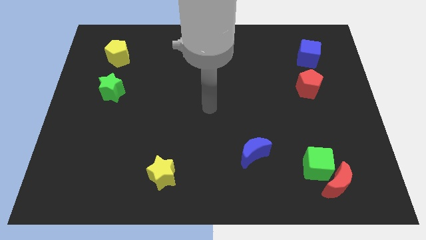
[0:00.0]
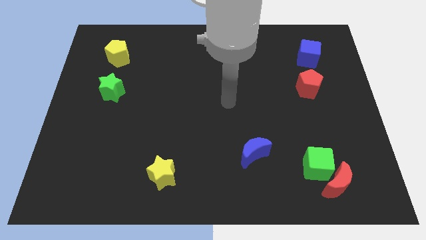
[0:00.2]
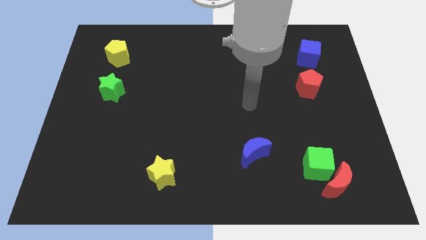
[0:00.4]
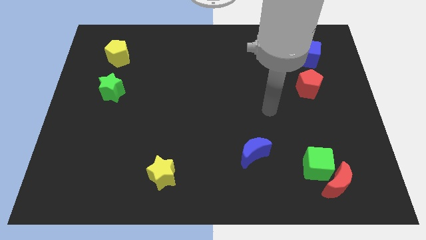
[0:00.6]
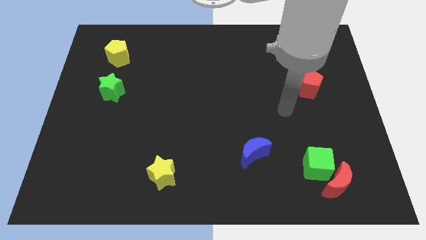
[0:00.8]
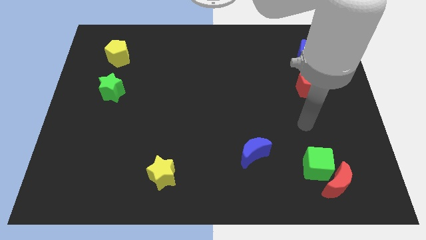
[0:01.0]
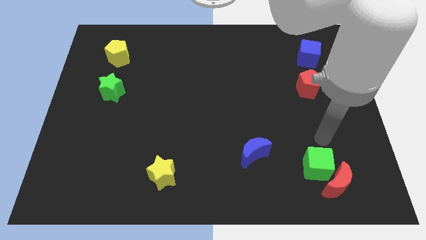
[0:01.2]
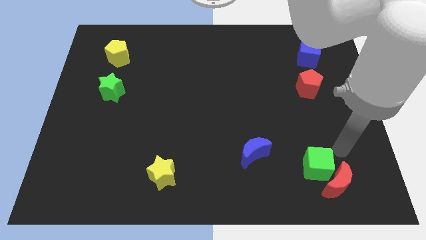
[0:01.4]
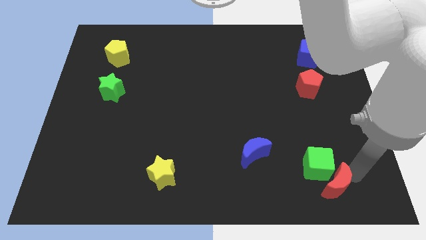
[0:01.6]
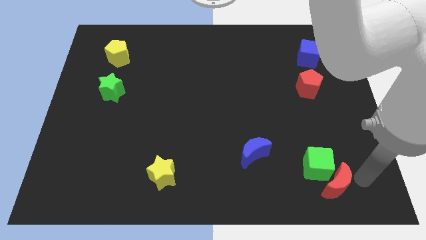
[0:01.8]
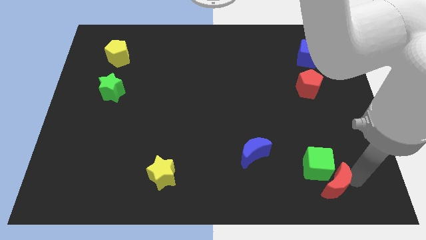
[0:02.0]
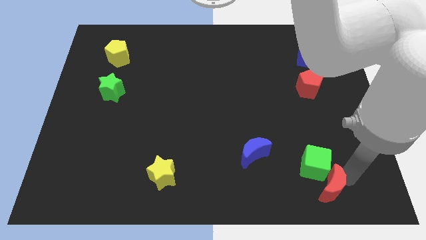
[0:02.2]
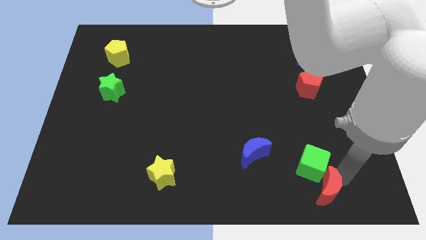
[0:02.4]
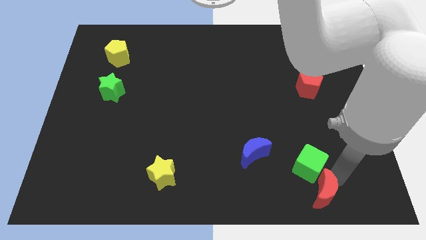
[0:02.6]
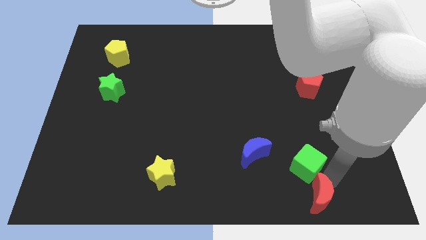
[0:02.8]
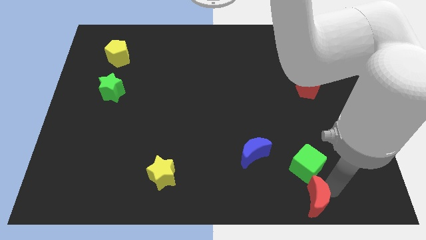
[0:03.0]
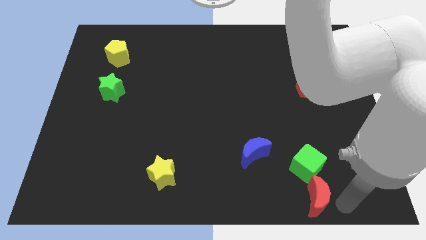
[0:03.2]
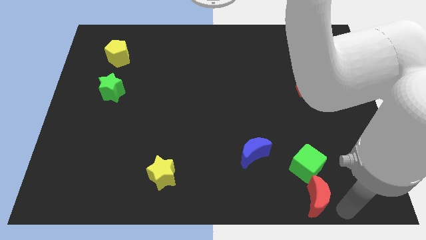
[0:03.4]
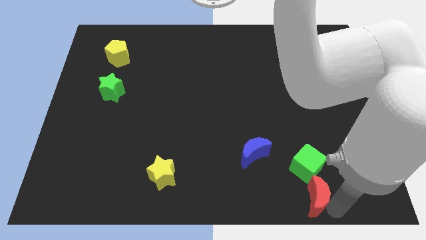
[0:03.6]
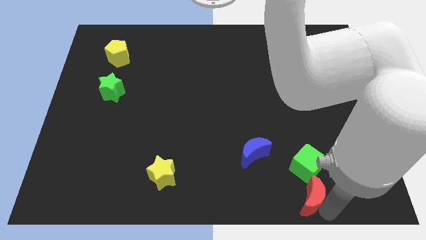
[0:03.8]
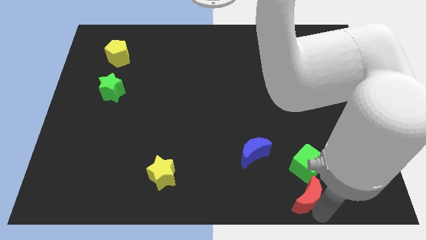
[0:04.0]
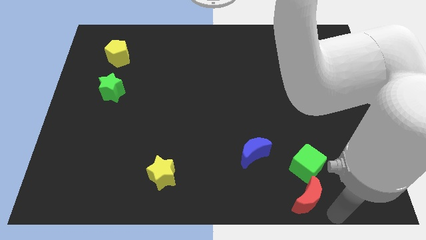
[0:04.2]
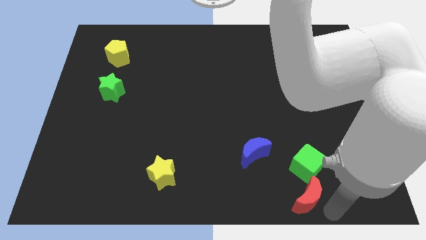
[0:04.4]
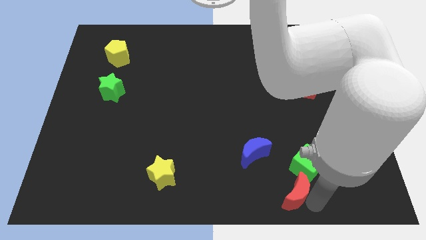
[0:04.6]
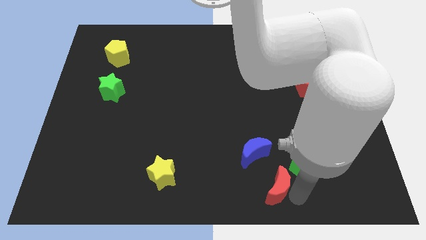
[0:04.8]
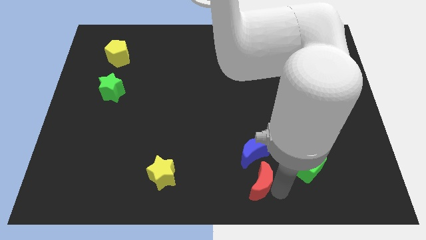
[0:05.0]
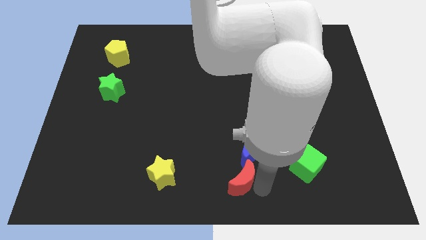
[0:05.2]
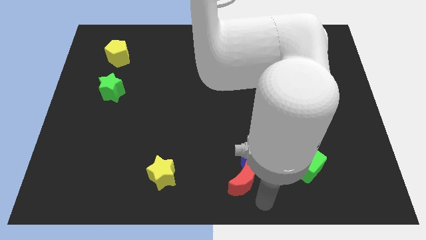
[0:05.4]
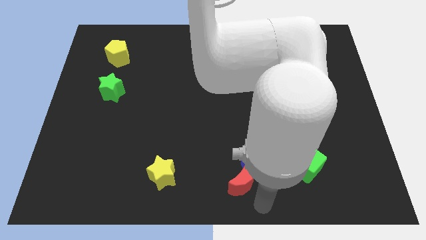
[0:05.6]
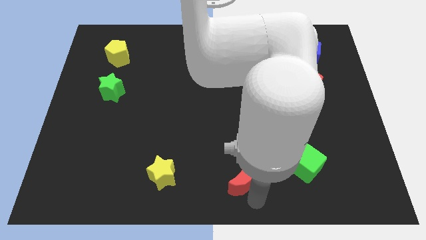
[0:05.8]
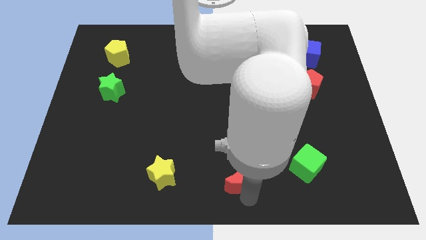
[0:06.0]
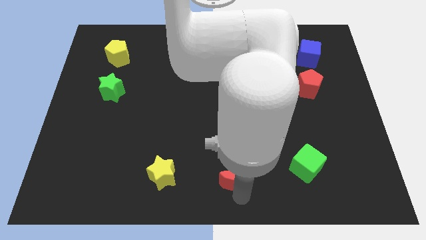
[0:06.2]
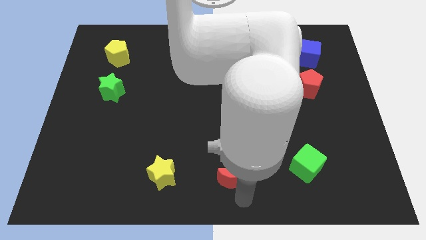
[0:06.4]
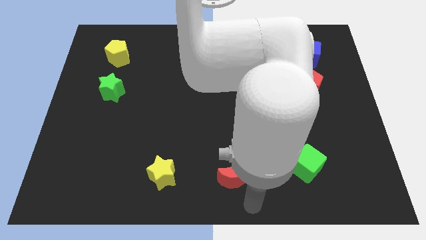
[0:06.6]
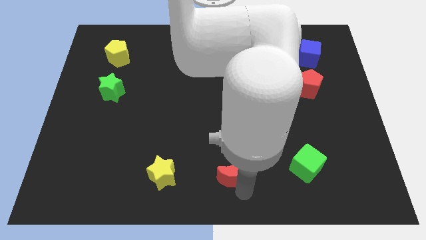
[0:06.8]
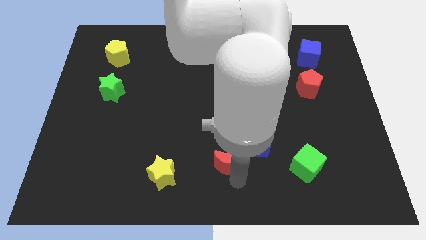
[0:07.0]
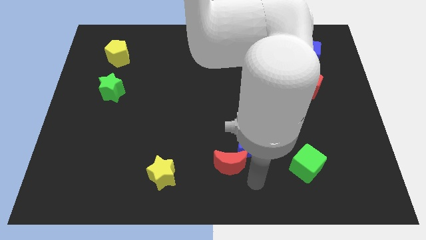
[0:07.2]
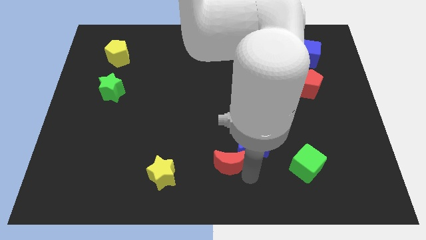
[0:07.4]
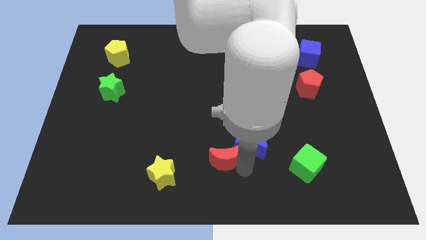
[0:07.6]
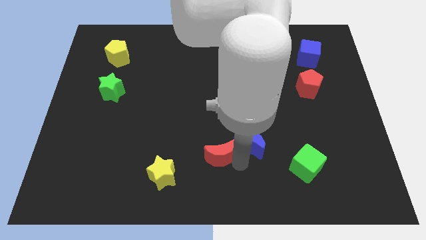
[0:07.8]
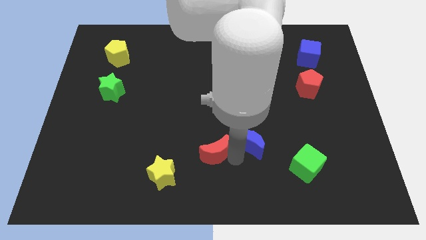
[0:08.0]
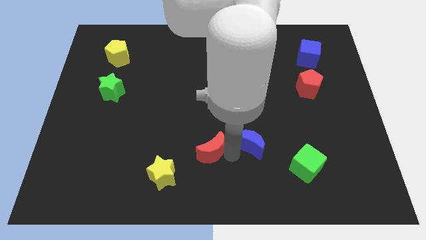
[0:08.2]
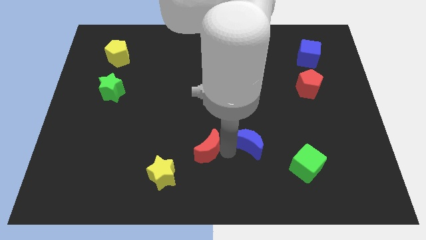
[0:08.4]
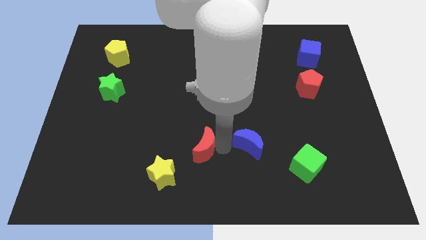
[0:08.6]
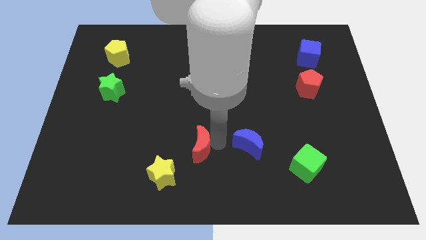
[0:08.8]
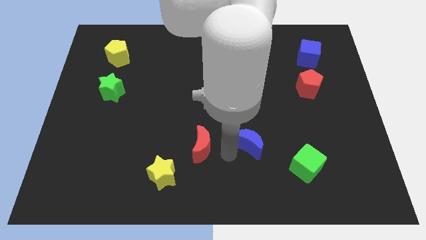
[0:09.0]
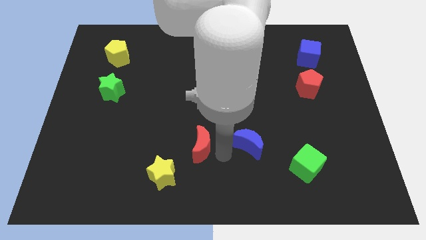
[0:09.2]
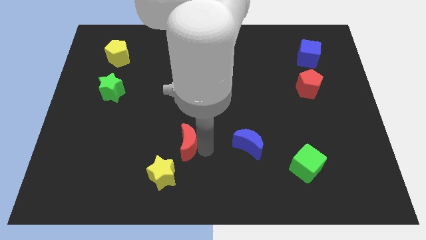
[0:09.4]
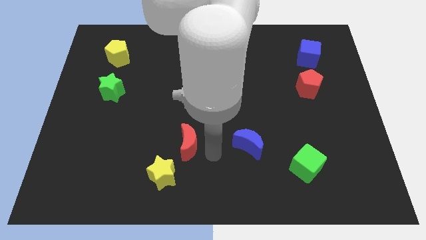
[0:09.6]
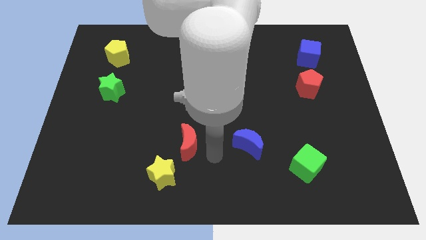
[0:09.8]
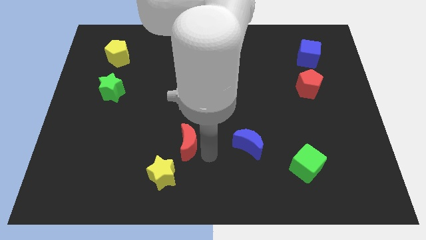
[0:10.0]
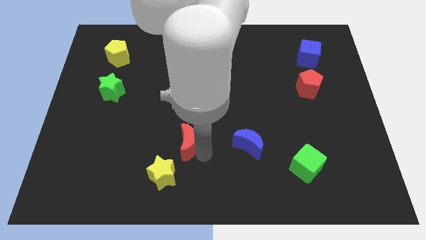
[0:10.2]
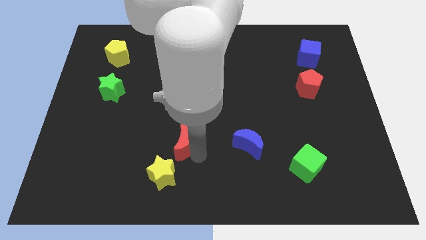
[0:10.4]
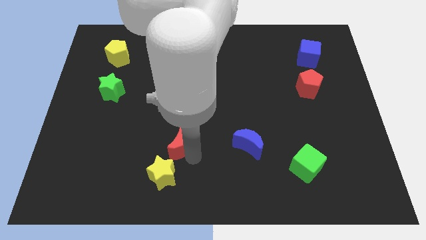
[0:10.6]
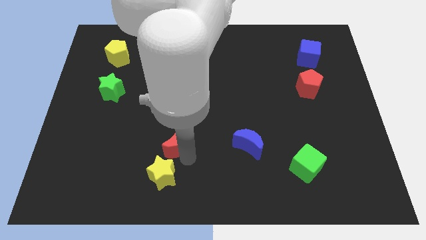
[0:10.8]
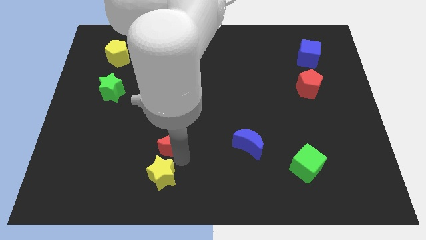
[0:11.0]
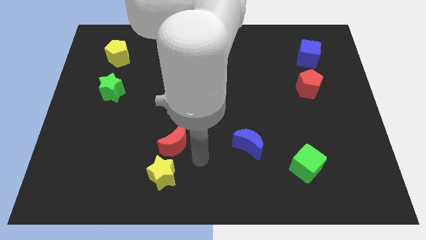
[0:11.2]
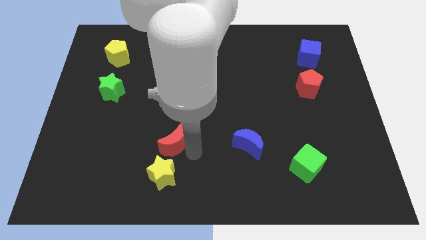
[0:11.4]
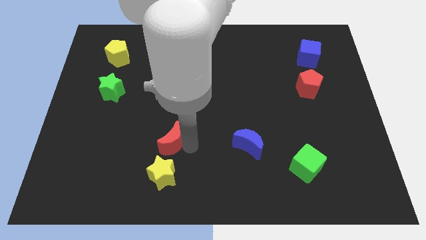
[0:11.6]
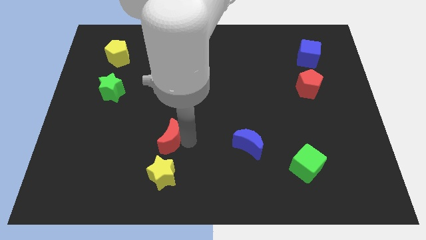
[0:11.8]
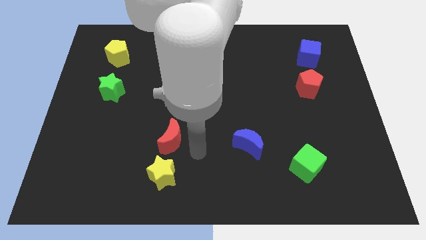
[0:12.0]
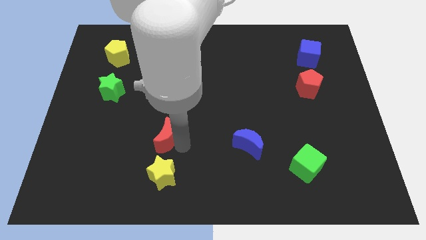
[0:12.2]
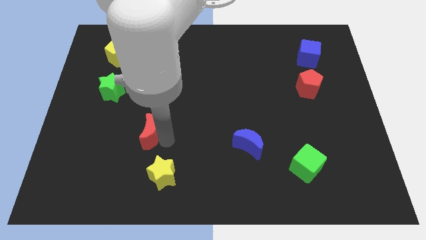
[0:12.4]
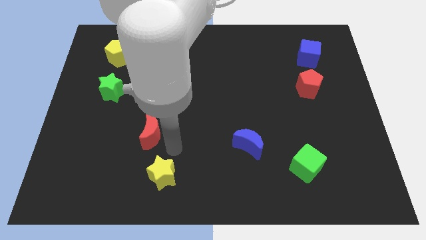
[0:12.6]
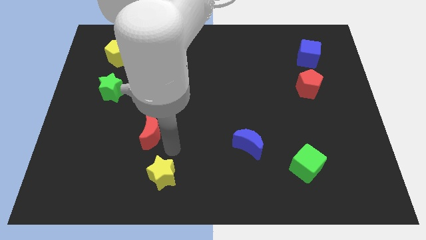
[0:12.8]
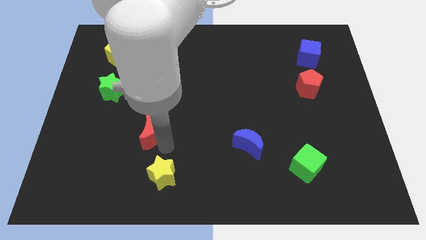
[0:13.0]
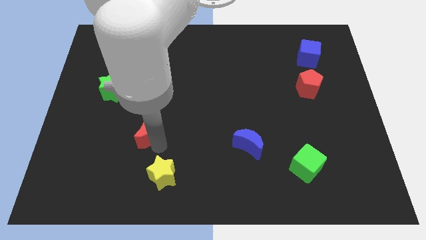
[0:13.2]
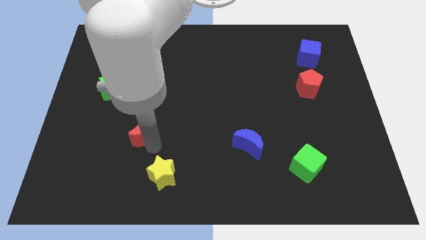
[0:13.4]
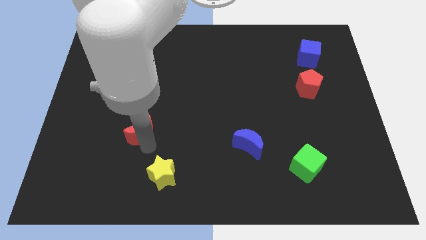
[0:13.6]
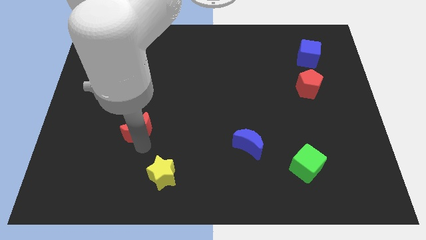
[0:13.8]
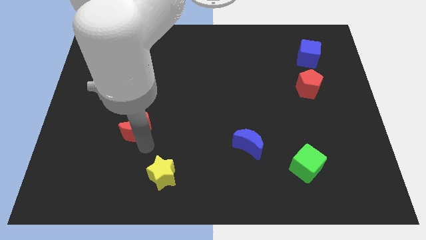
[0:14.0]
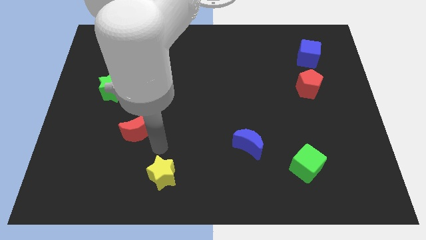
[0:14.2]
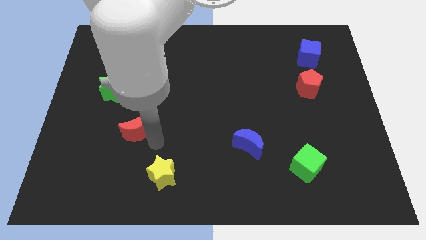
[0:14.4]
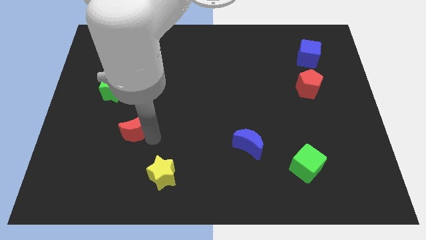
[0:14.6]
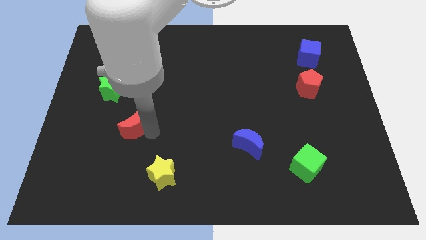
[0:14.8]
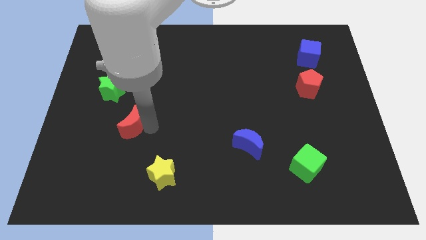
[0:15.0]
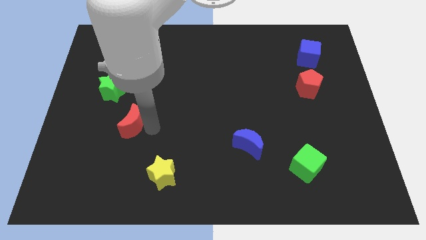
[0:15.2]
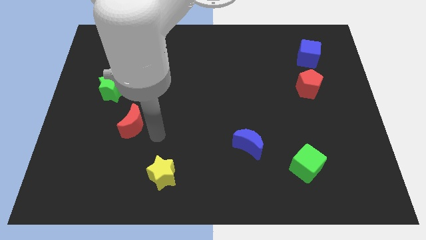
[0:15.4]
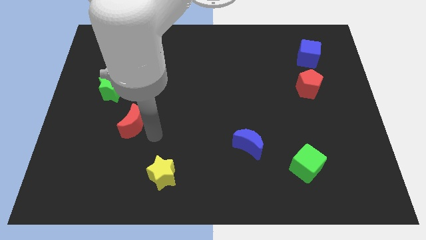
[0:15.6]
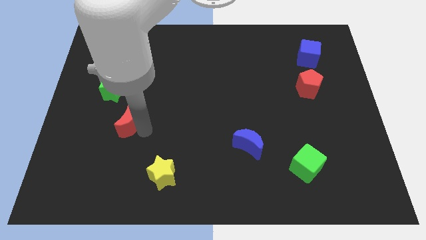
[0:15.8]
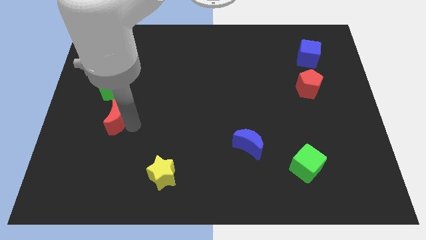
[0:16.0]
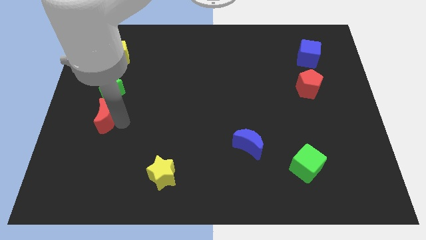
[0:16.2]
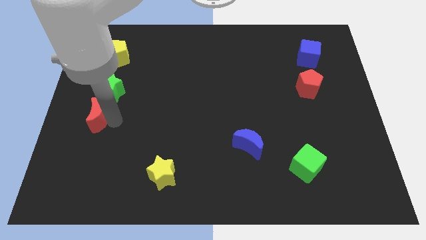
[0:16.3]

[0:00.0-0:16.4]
push the red moon to the left side of the board
